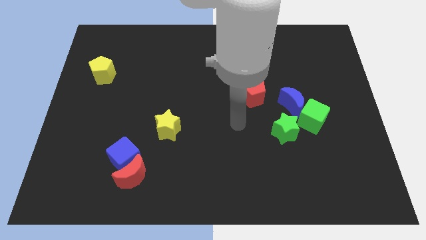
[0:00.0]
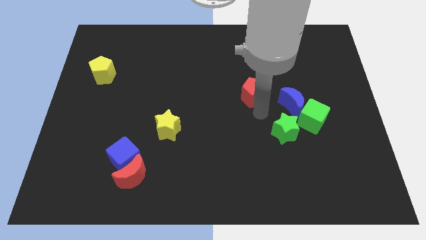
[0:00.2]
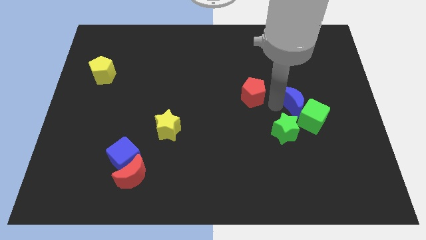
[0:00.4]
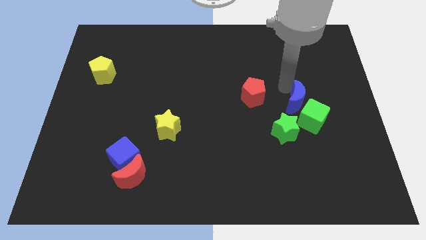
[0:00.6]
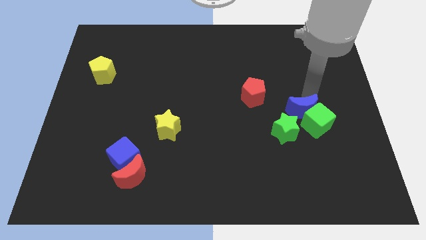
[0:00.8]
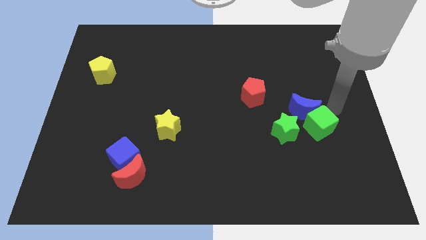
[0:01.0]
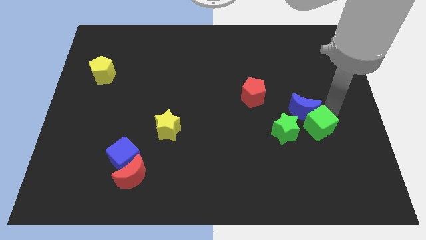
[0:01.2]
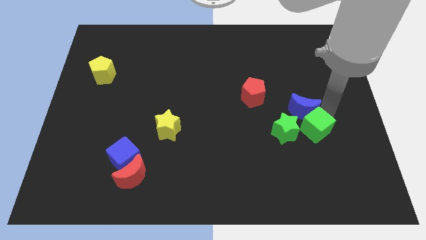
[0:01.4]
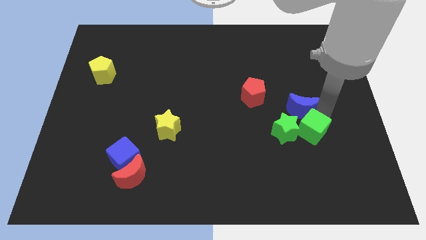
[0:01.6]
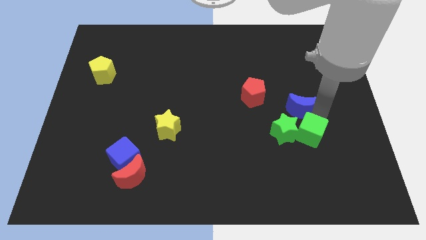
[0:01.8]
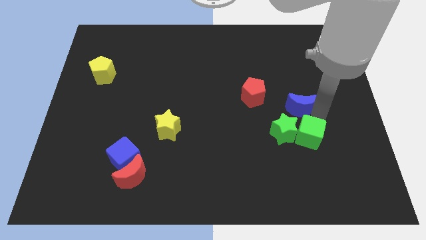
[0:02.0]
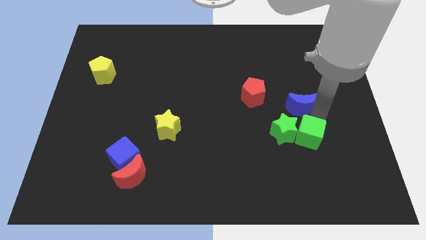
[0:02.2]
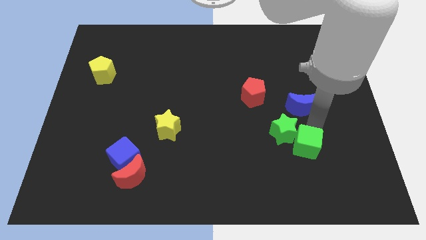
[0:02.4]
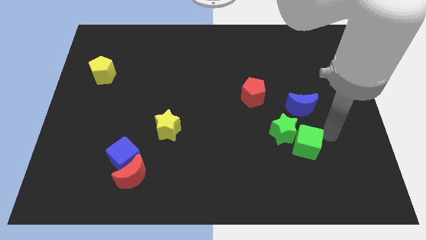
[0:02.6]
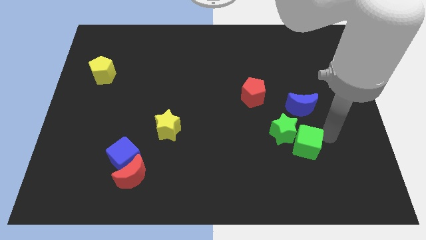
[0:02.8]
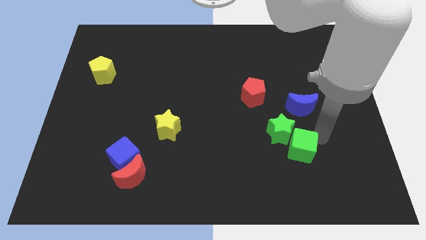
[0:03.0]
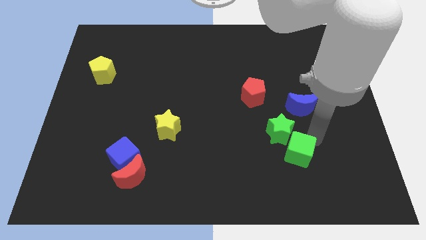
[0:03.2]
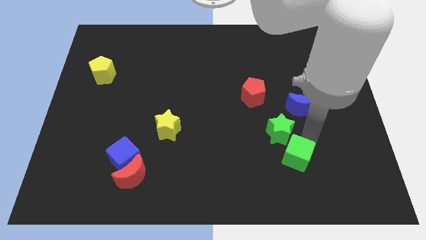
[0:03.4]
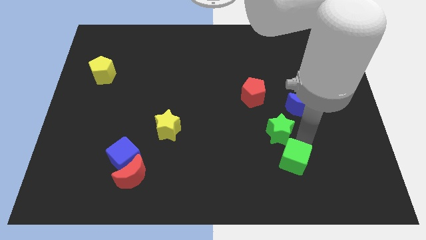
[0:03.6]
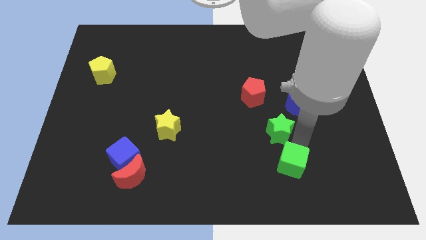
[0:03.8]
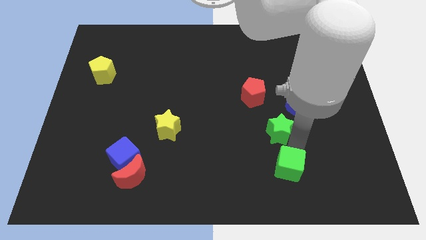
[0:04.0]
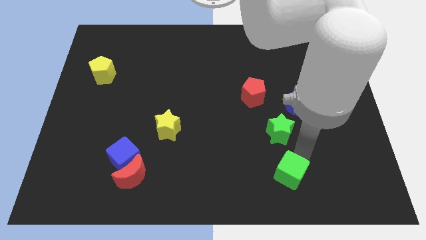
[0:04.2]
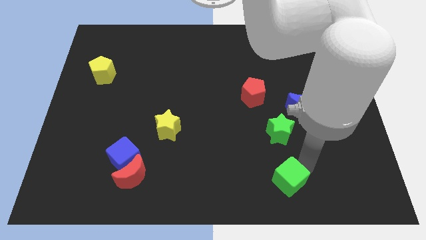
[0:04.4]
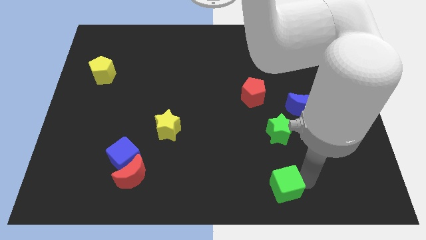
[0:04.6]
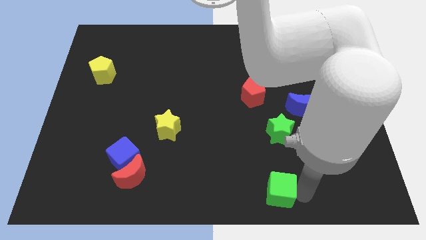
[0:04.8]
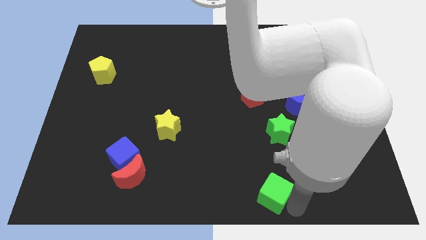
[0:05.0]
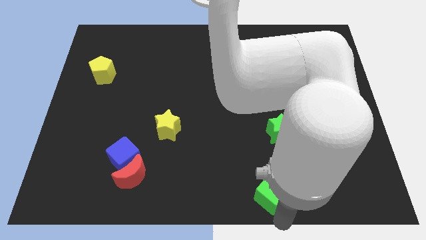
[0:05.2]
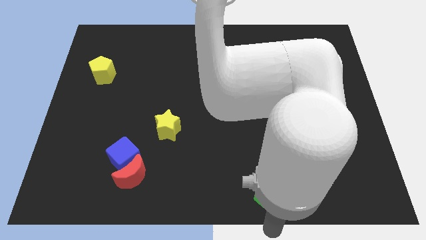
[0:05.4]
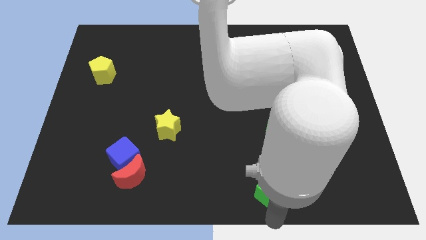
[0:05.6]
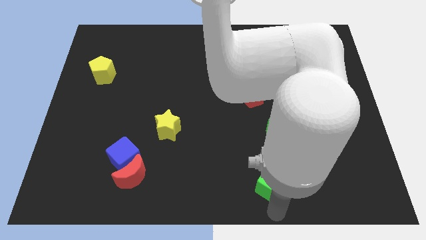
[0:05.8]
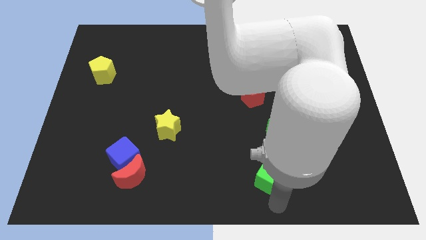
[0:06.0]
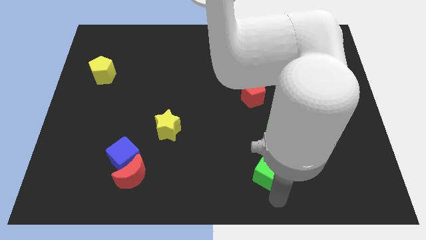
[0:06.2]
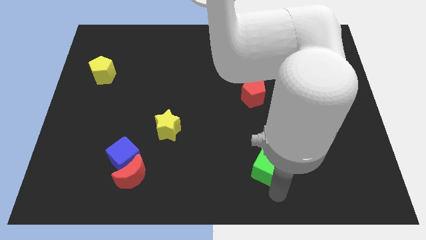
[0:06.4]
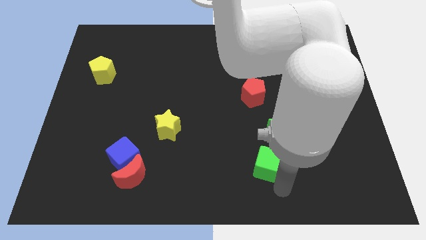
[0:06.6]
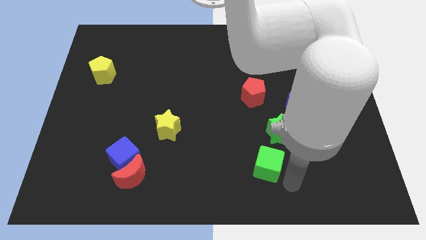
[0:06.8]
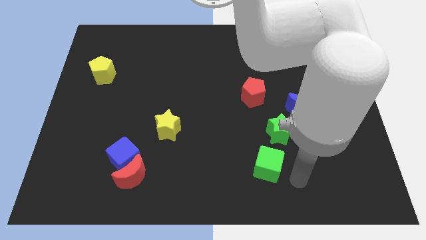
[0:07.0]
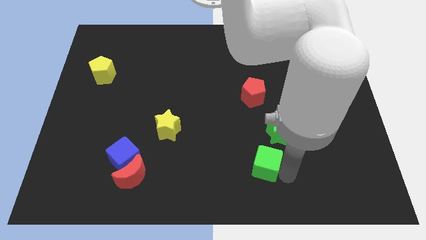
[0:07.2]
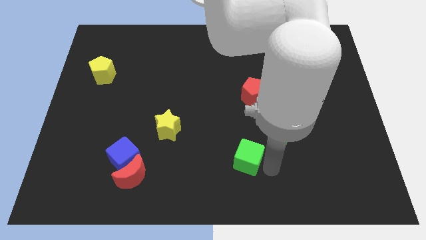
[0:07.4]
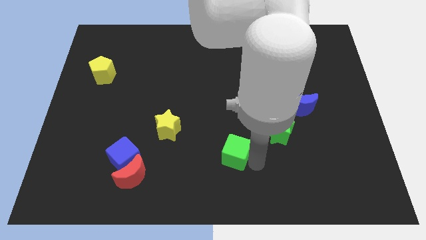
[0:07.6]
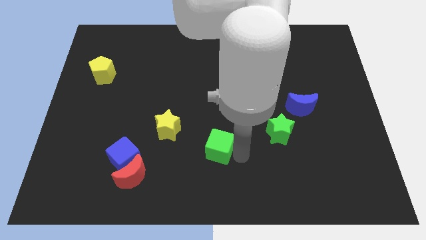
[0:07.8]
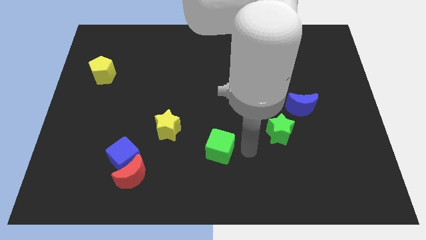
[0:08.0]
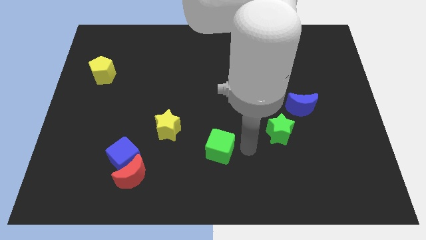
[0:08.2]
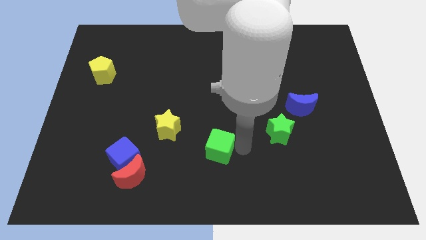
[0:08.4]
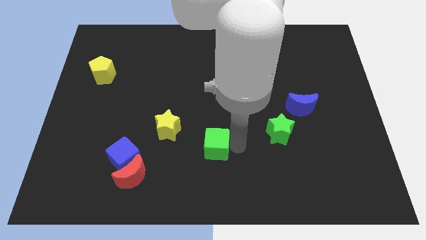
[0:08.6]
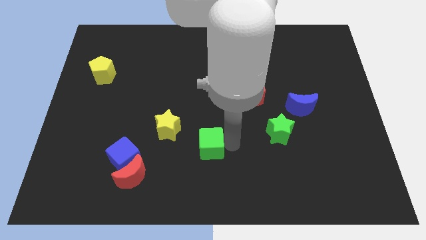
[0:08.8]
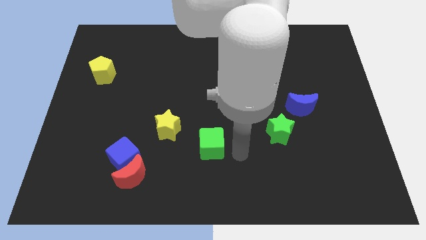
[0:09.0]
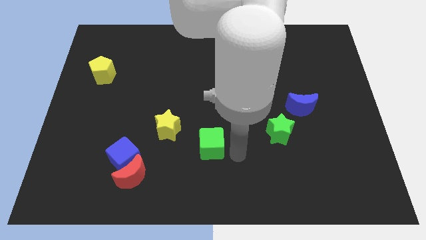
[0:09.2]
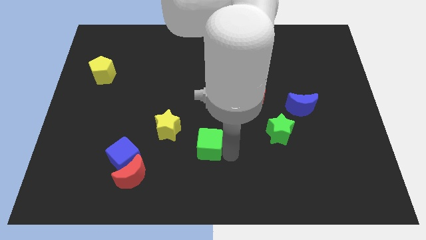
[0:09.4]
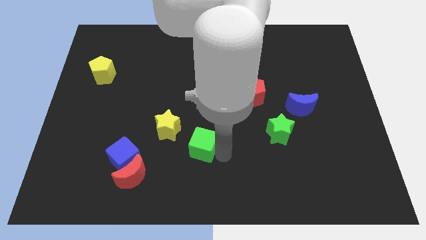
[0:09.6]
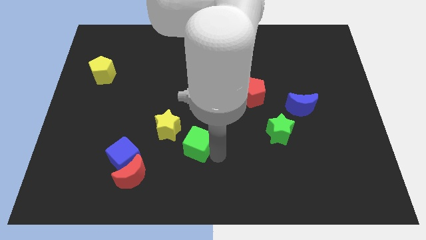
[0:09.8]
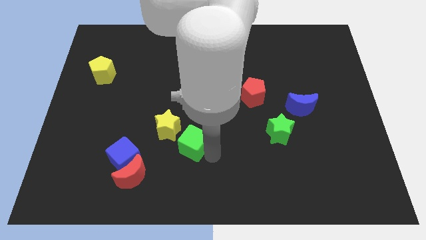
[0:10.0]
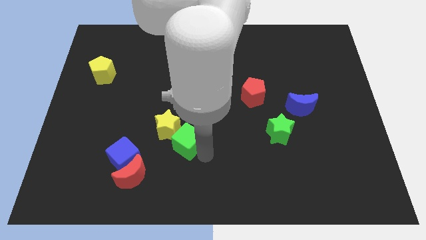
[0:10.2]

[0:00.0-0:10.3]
push the green cube next to the yellow star

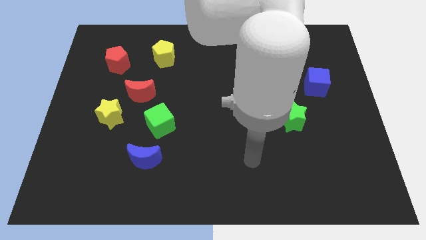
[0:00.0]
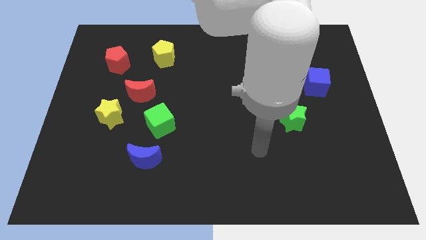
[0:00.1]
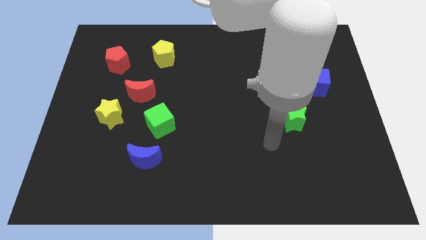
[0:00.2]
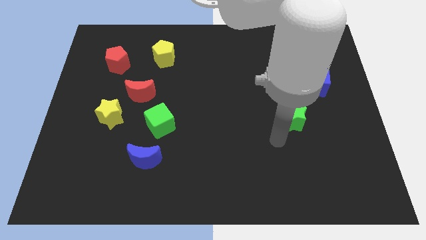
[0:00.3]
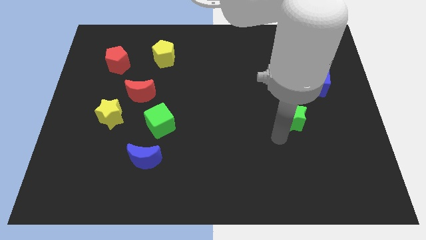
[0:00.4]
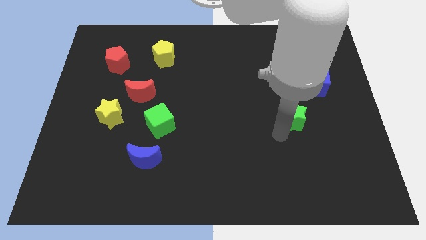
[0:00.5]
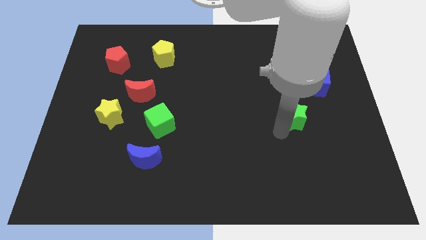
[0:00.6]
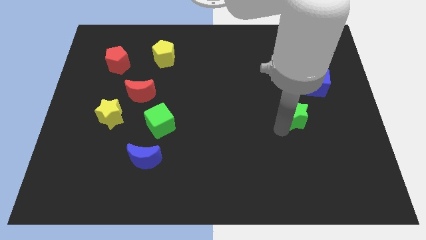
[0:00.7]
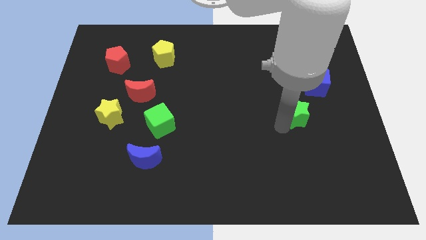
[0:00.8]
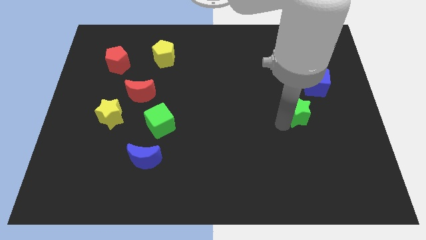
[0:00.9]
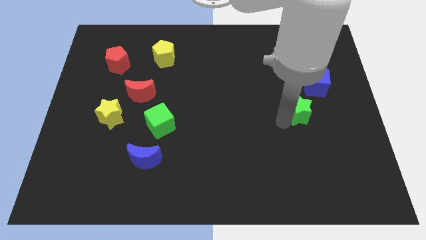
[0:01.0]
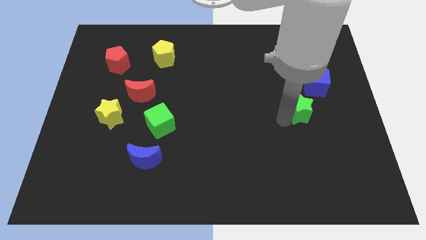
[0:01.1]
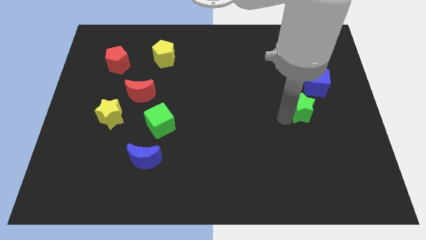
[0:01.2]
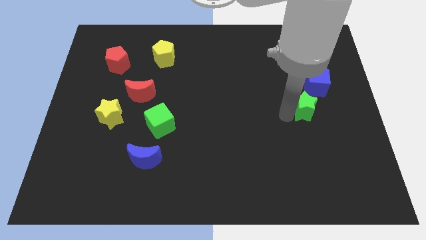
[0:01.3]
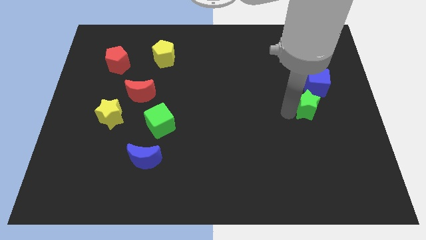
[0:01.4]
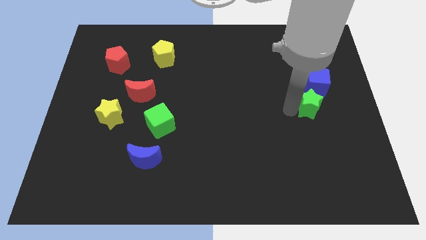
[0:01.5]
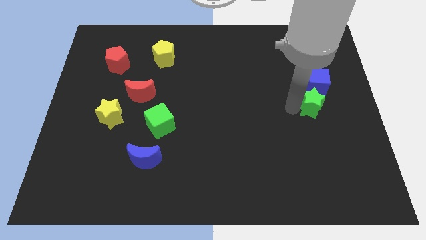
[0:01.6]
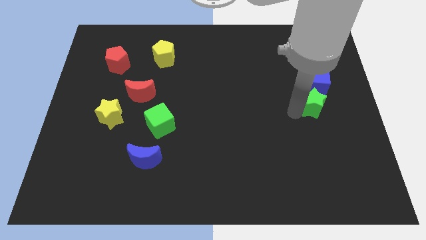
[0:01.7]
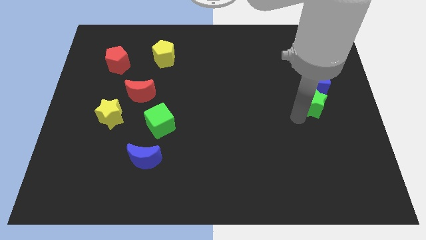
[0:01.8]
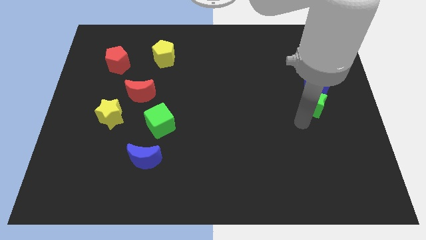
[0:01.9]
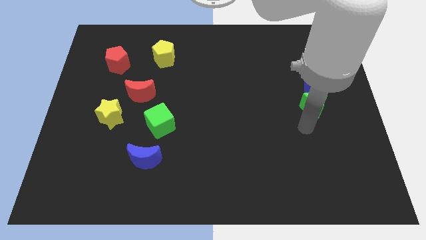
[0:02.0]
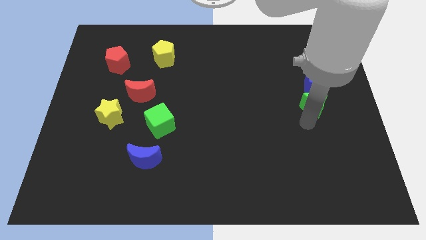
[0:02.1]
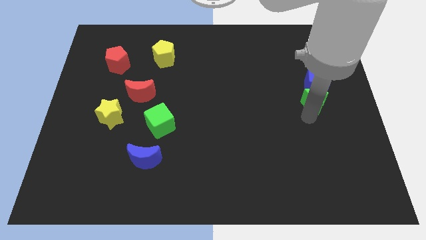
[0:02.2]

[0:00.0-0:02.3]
slide the green star to the blue cube

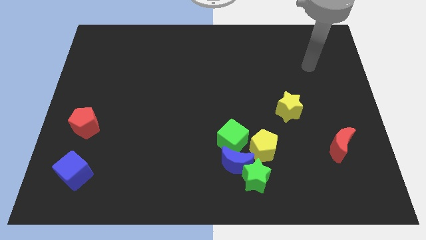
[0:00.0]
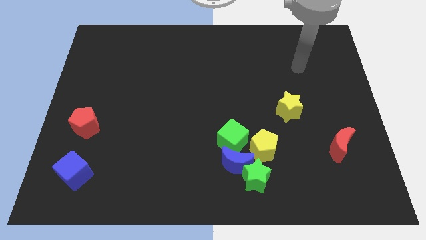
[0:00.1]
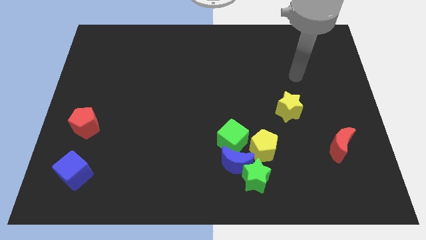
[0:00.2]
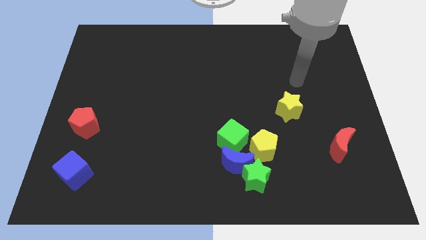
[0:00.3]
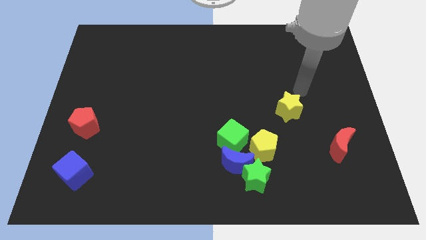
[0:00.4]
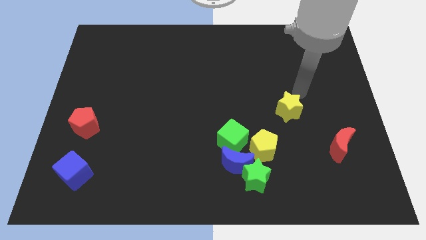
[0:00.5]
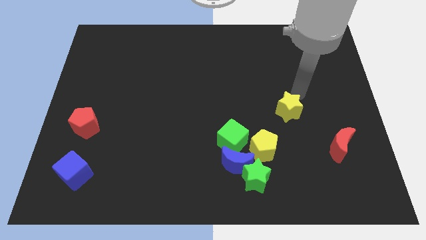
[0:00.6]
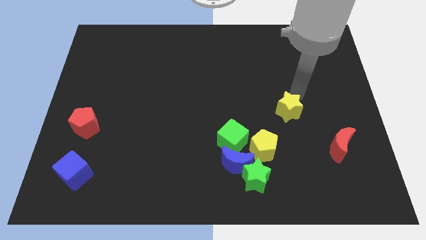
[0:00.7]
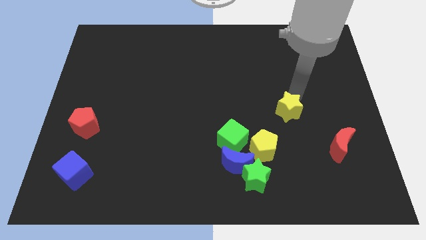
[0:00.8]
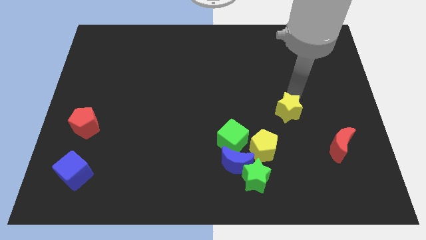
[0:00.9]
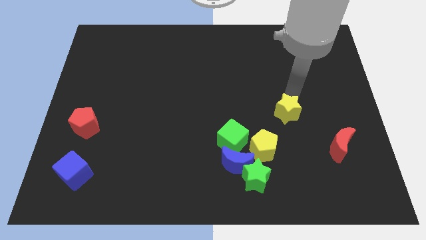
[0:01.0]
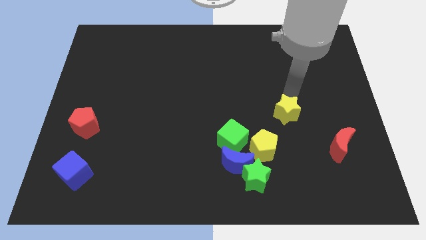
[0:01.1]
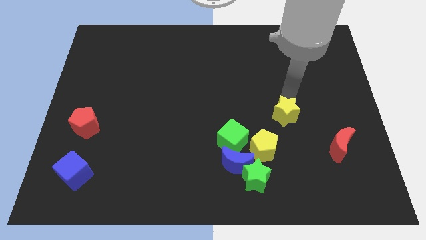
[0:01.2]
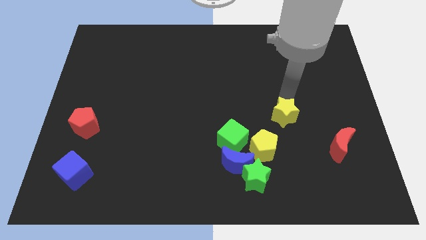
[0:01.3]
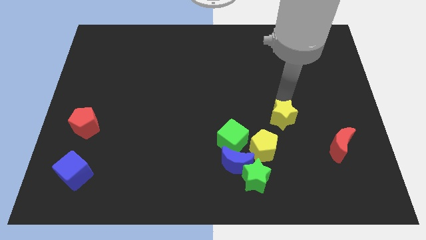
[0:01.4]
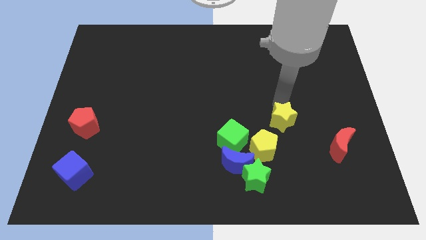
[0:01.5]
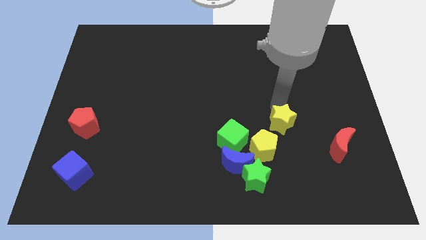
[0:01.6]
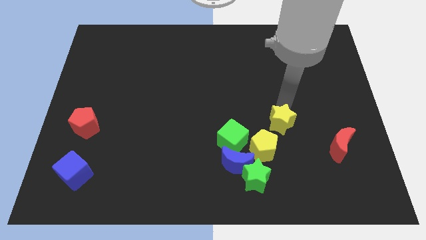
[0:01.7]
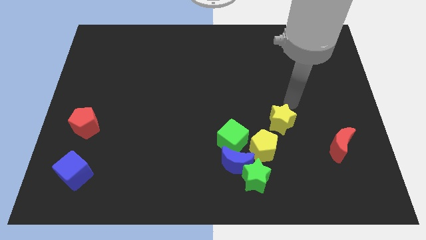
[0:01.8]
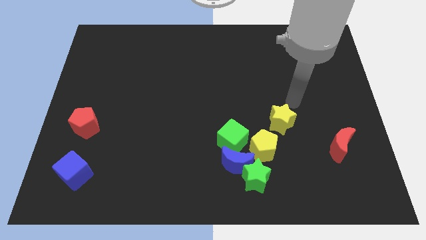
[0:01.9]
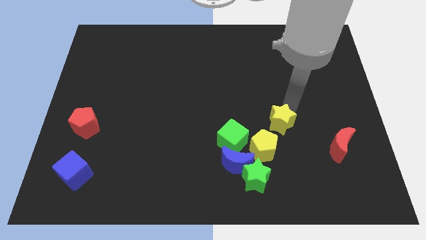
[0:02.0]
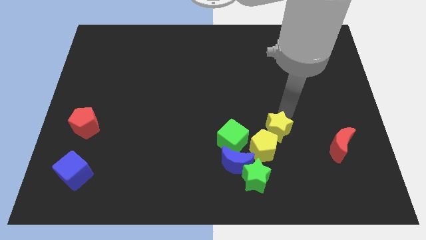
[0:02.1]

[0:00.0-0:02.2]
slide the yellow star close to the yellow pentagon
